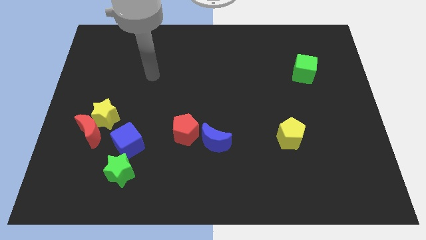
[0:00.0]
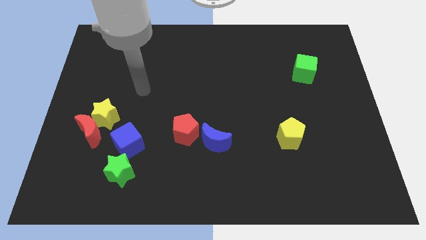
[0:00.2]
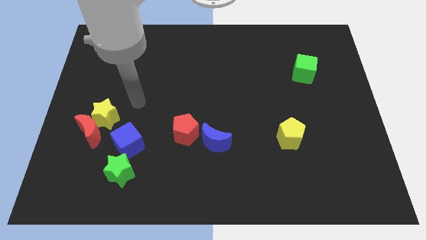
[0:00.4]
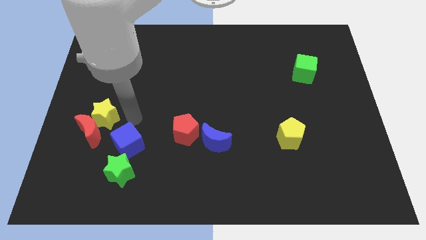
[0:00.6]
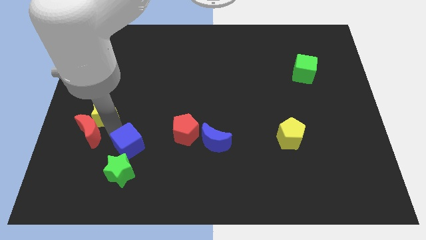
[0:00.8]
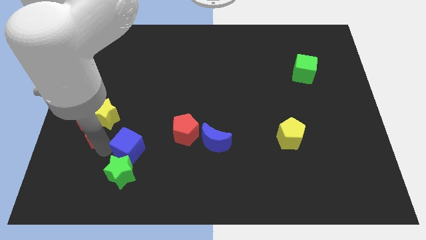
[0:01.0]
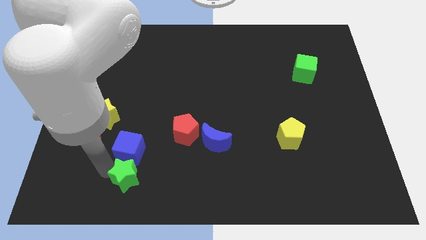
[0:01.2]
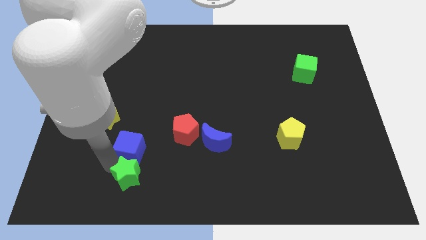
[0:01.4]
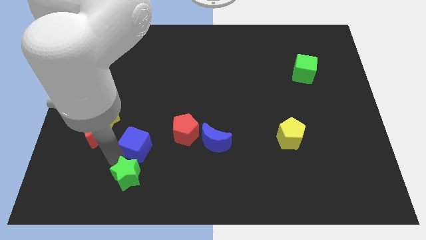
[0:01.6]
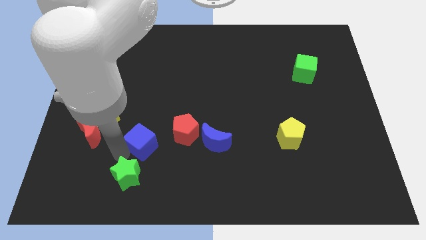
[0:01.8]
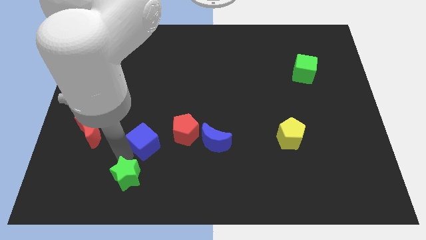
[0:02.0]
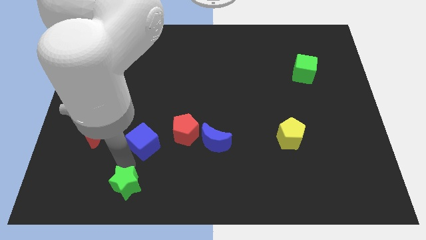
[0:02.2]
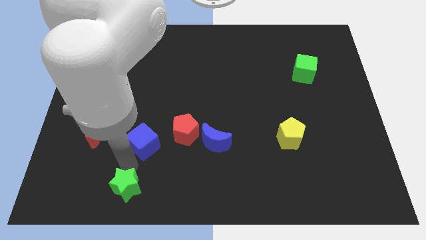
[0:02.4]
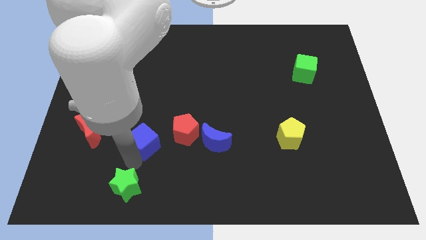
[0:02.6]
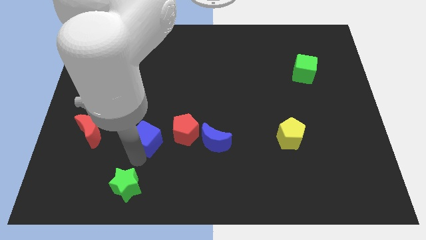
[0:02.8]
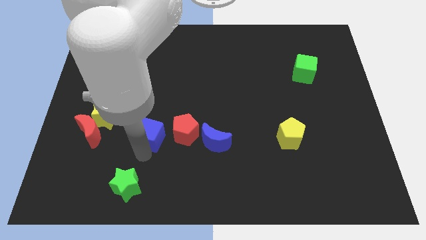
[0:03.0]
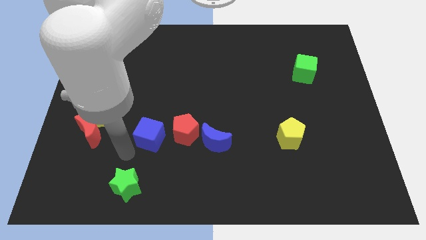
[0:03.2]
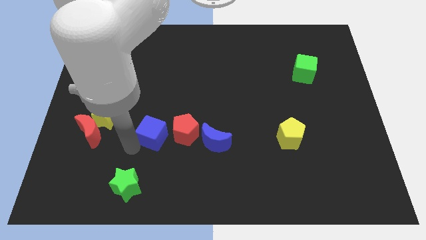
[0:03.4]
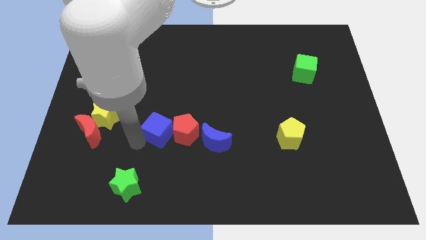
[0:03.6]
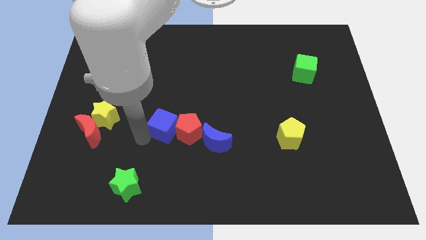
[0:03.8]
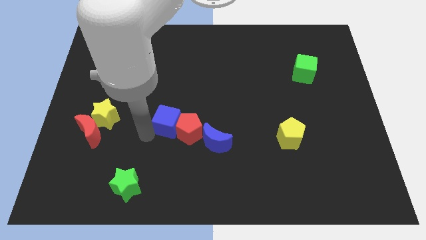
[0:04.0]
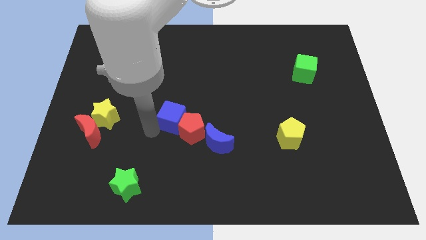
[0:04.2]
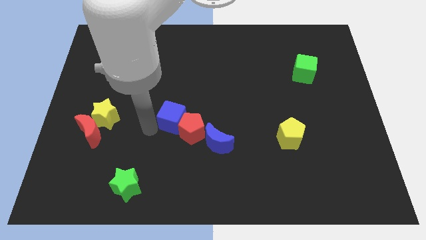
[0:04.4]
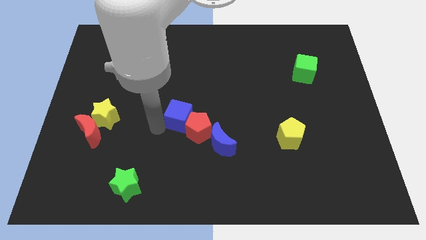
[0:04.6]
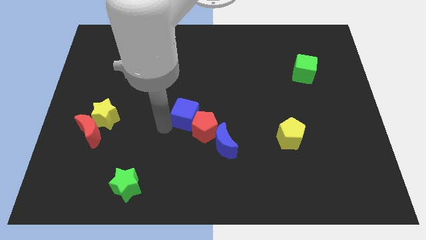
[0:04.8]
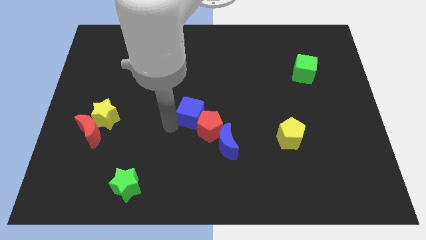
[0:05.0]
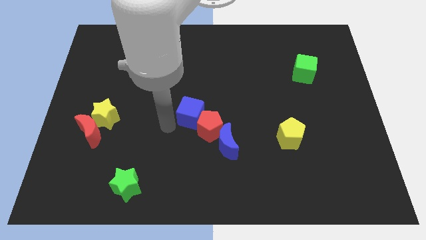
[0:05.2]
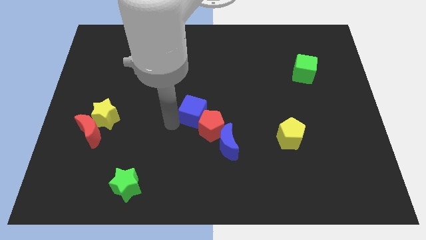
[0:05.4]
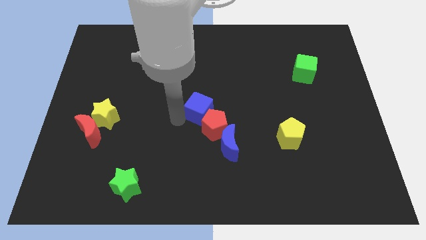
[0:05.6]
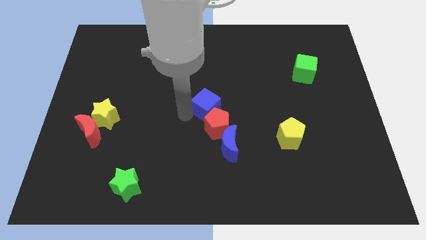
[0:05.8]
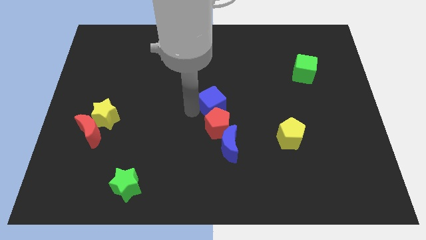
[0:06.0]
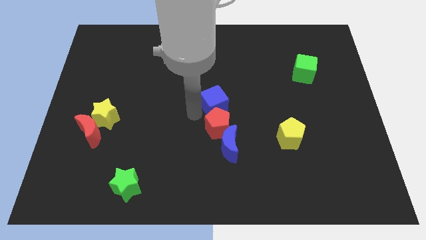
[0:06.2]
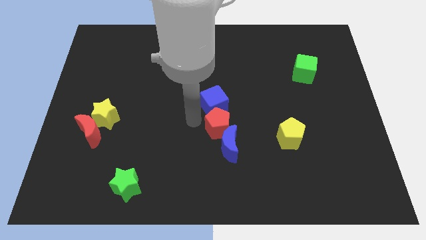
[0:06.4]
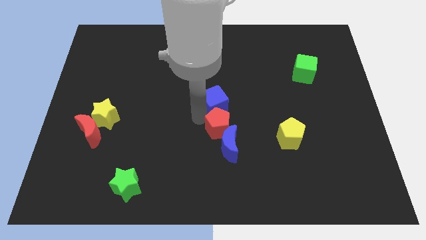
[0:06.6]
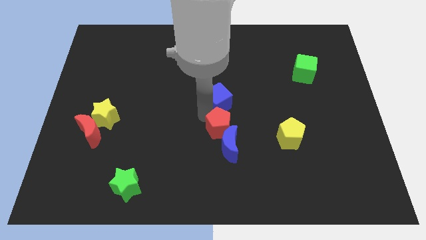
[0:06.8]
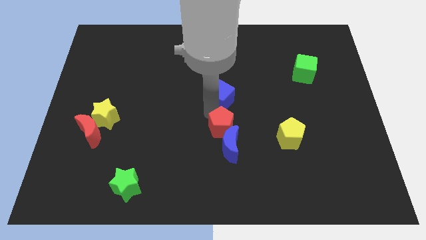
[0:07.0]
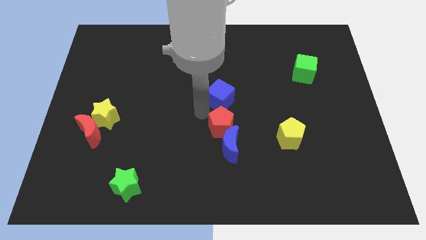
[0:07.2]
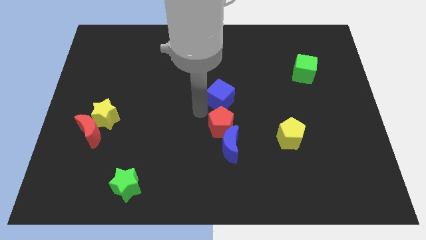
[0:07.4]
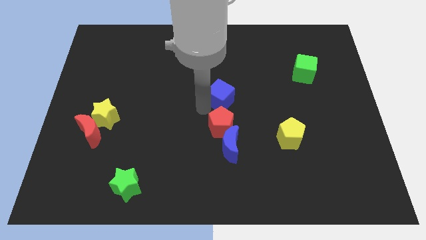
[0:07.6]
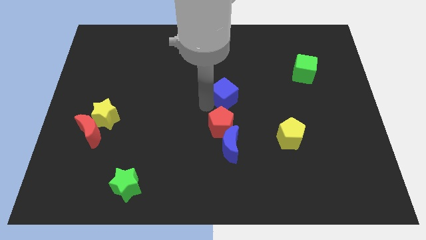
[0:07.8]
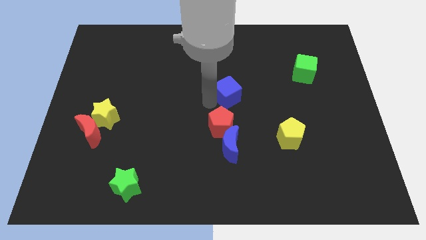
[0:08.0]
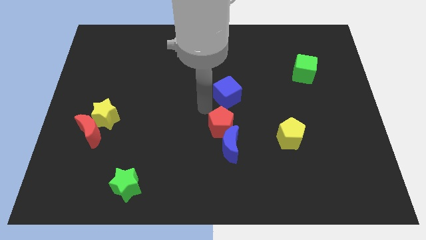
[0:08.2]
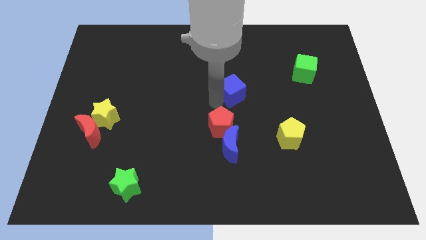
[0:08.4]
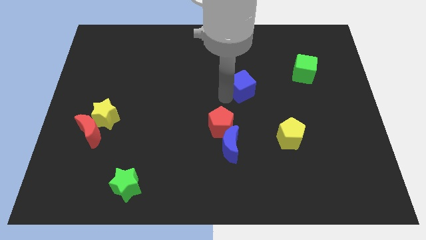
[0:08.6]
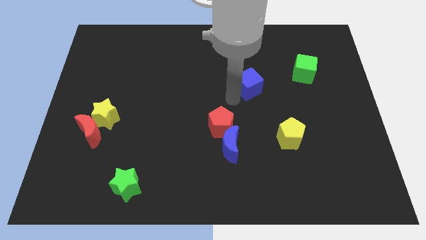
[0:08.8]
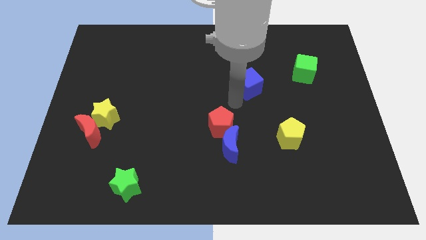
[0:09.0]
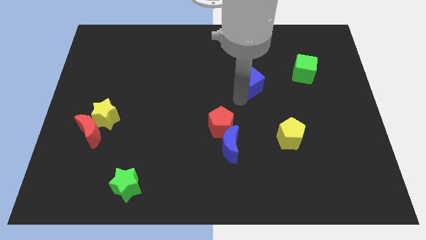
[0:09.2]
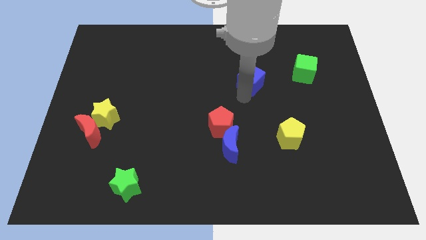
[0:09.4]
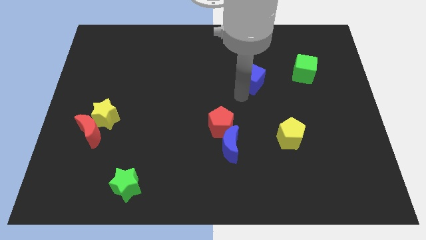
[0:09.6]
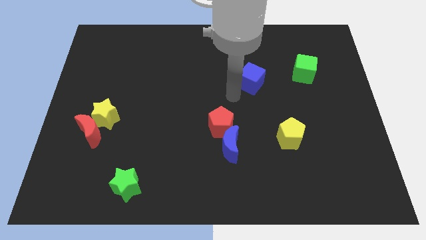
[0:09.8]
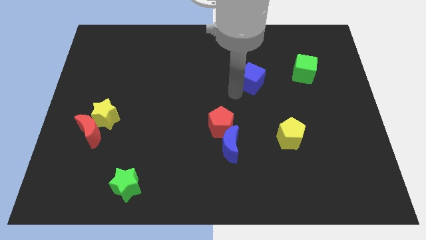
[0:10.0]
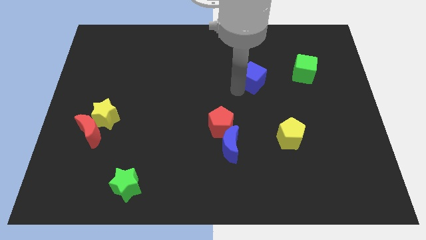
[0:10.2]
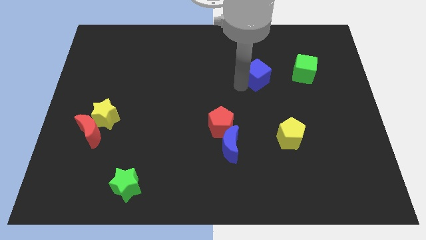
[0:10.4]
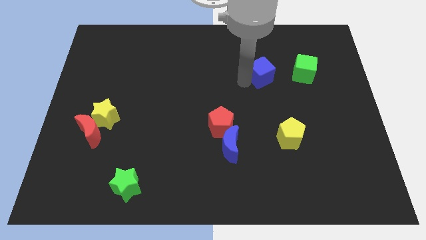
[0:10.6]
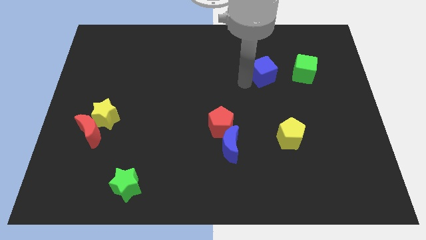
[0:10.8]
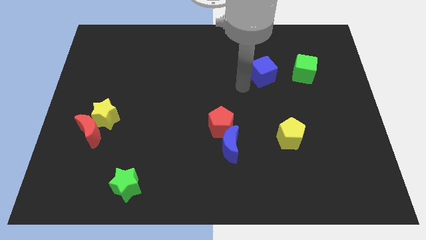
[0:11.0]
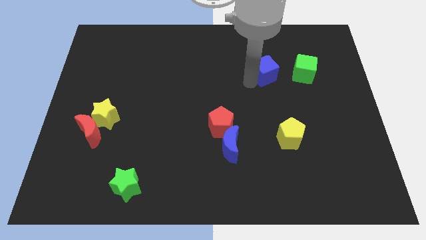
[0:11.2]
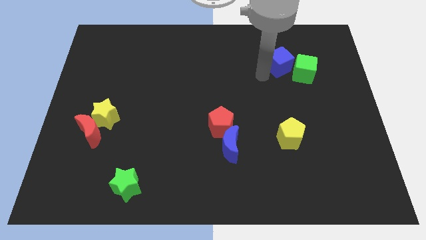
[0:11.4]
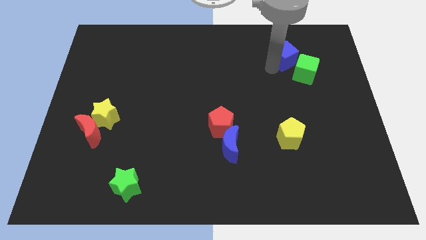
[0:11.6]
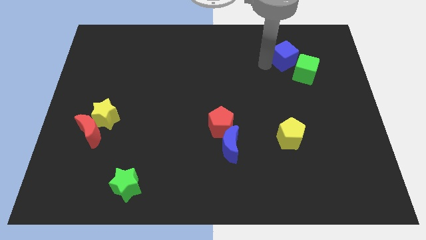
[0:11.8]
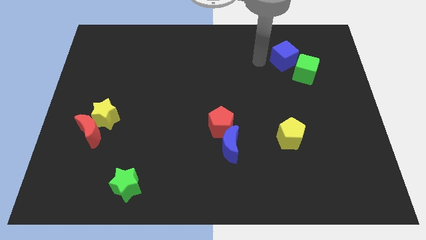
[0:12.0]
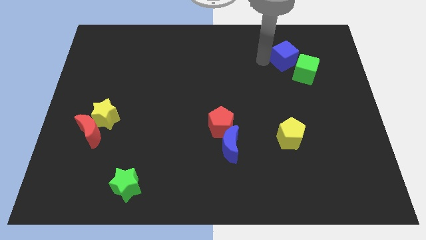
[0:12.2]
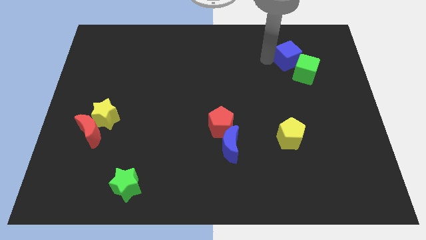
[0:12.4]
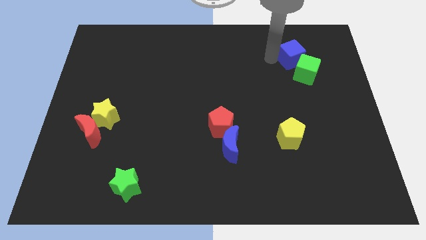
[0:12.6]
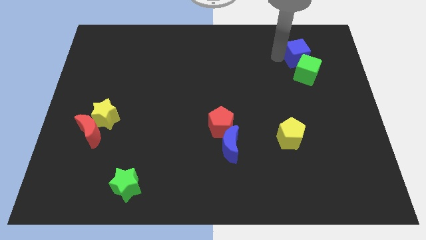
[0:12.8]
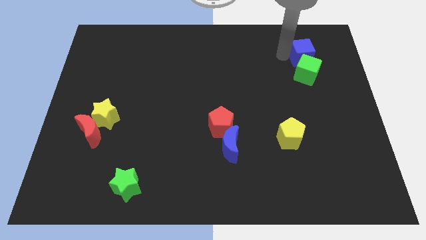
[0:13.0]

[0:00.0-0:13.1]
push the blue cube to the top right side of the green cube

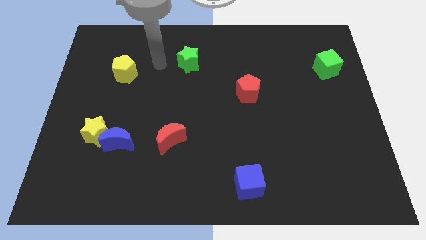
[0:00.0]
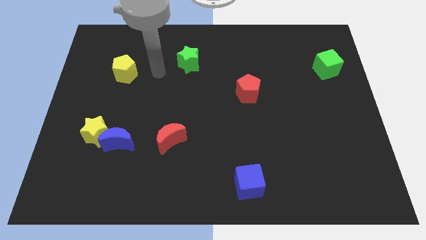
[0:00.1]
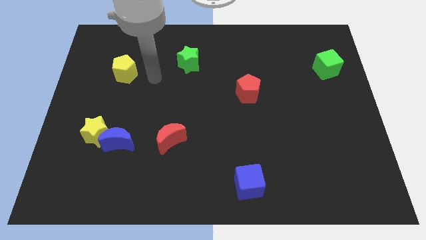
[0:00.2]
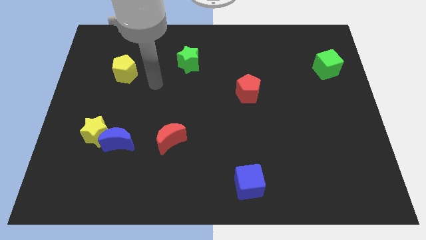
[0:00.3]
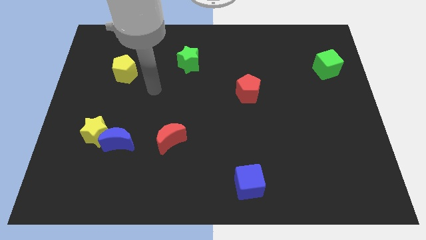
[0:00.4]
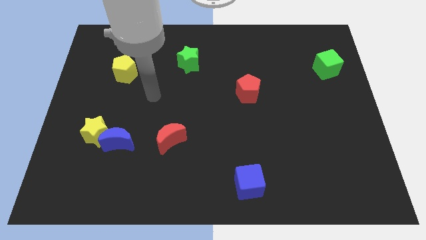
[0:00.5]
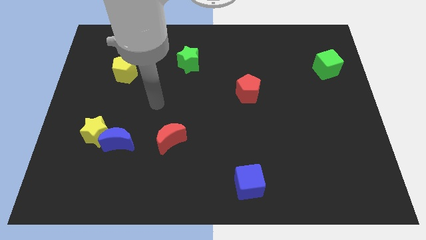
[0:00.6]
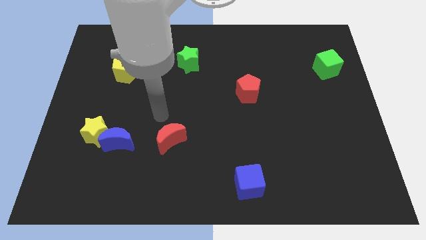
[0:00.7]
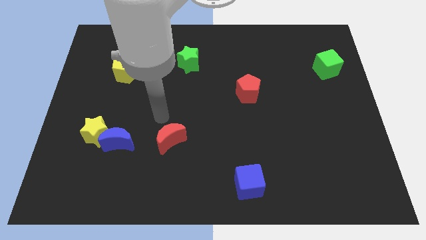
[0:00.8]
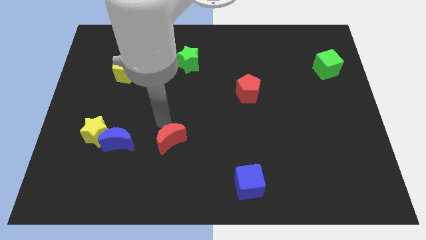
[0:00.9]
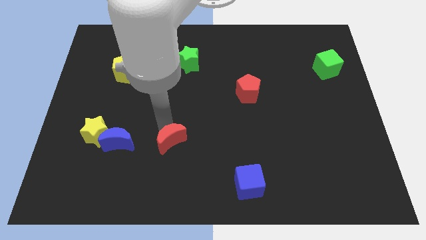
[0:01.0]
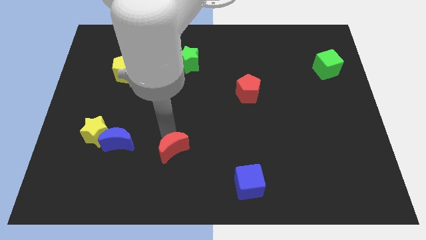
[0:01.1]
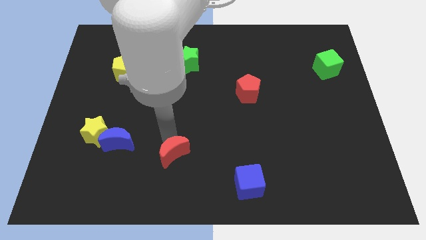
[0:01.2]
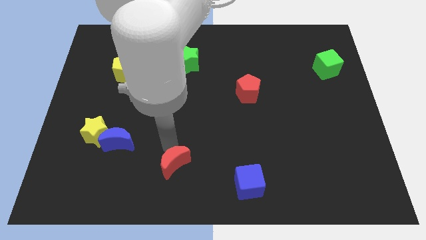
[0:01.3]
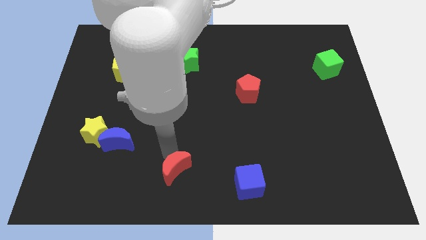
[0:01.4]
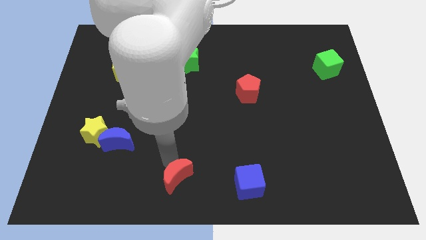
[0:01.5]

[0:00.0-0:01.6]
push the red moon to the left side of the blue cube
